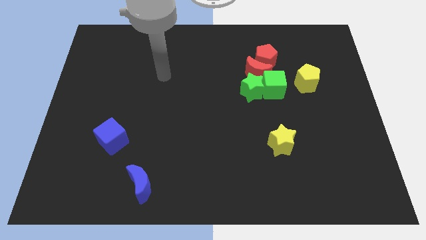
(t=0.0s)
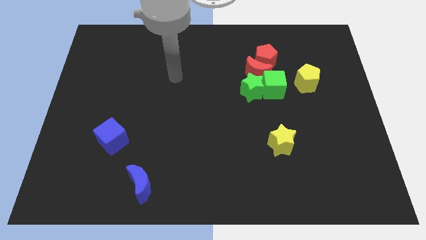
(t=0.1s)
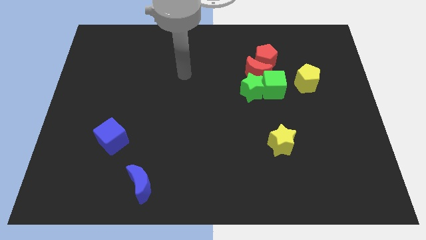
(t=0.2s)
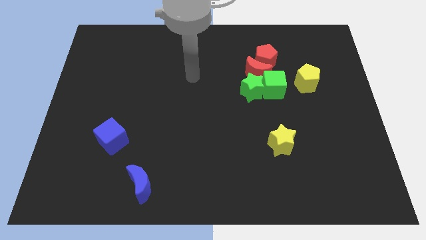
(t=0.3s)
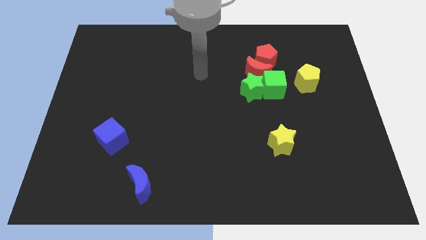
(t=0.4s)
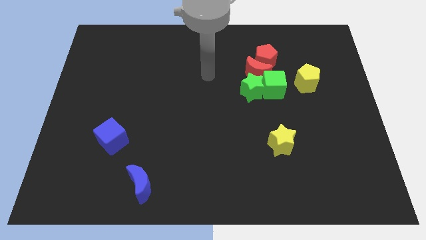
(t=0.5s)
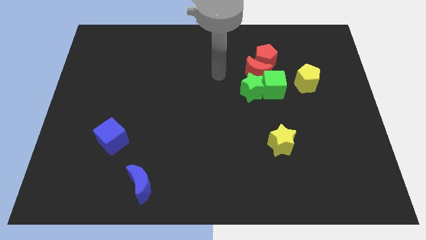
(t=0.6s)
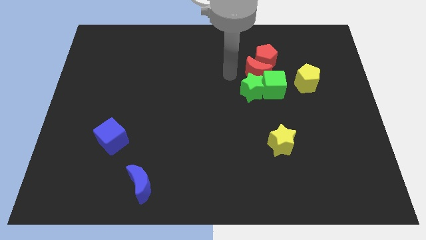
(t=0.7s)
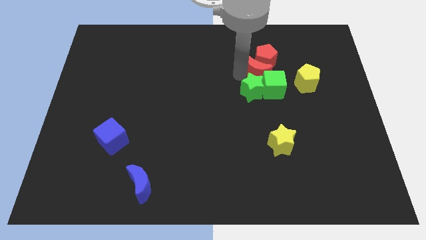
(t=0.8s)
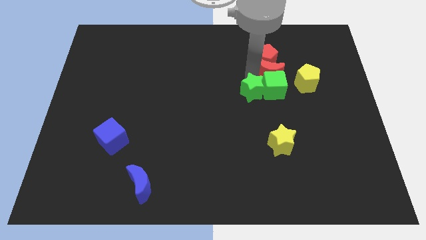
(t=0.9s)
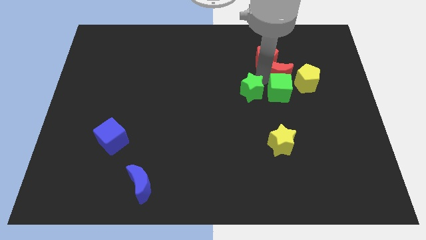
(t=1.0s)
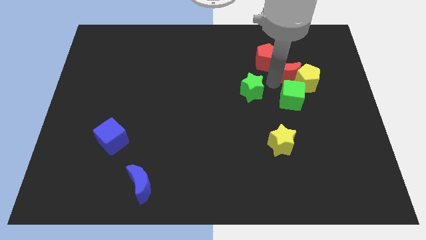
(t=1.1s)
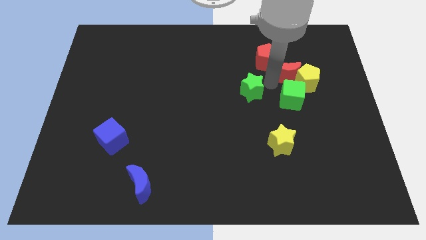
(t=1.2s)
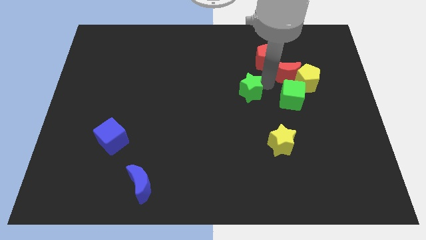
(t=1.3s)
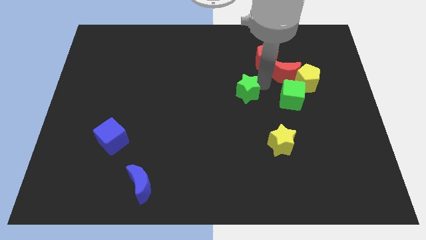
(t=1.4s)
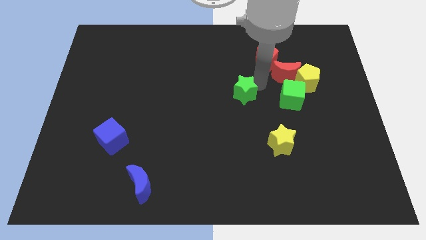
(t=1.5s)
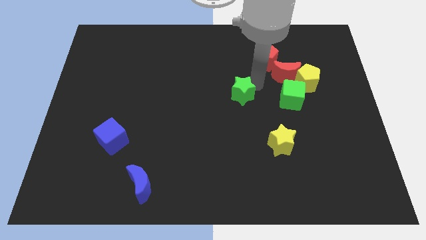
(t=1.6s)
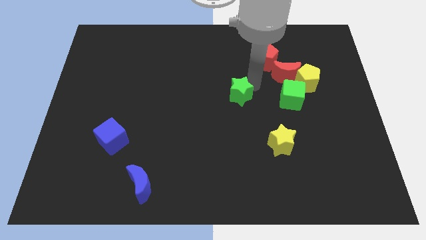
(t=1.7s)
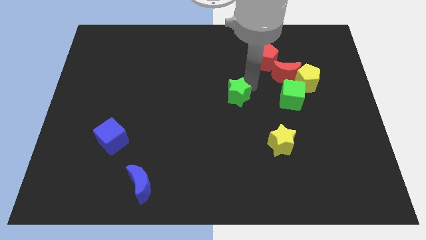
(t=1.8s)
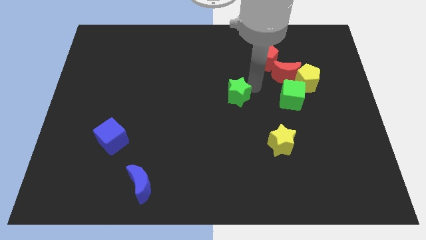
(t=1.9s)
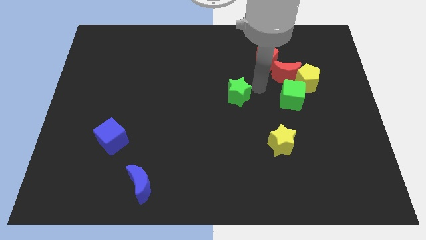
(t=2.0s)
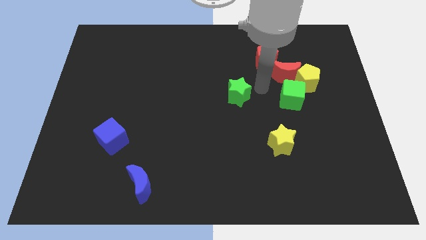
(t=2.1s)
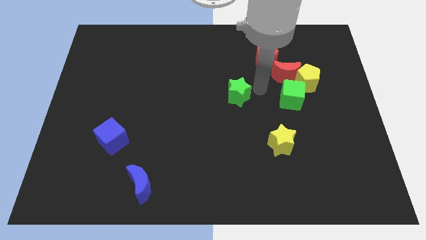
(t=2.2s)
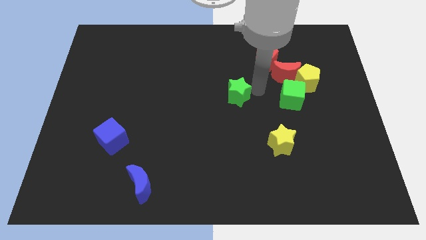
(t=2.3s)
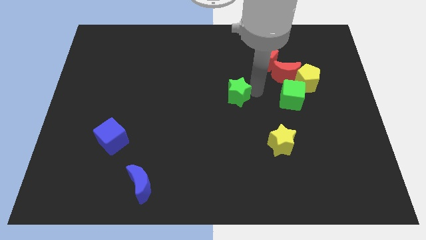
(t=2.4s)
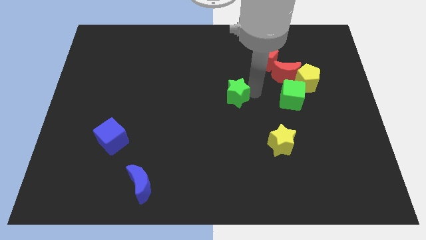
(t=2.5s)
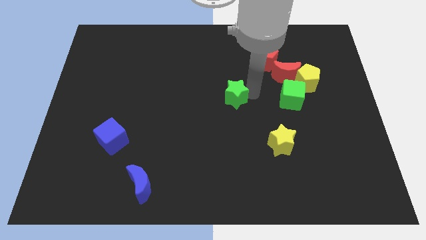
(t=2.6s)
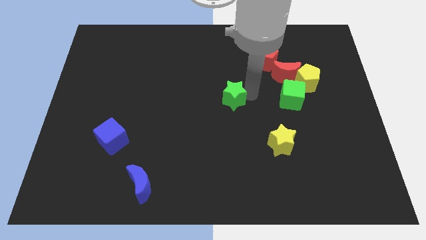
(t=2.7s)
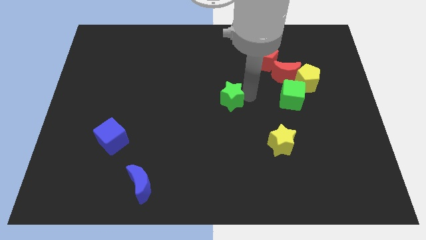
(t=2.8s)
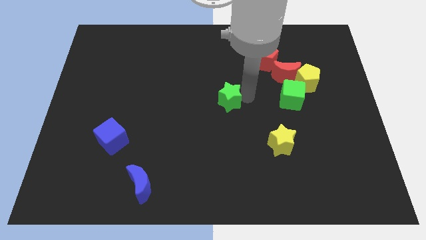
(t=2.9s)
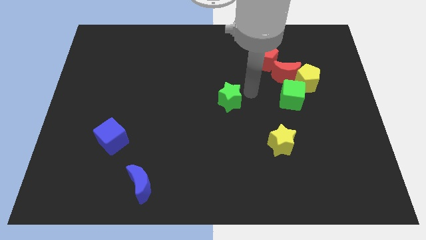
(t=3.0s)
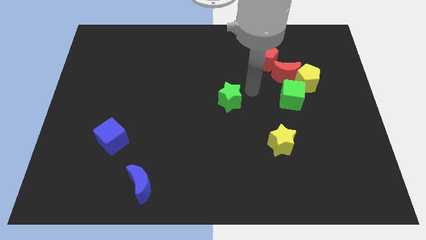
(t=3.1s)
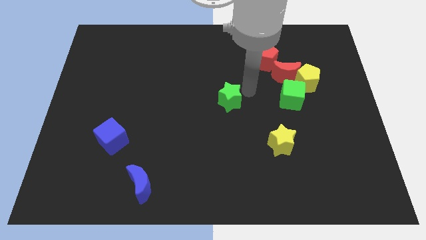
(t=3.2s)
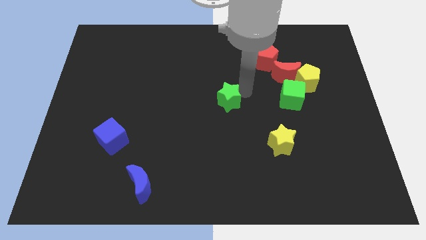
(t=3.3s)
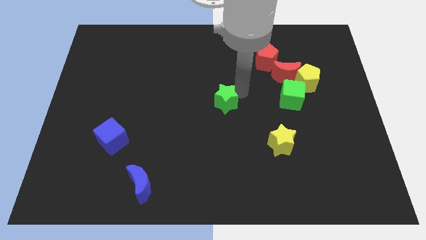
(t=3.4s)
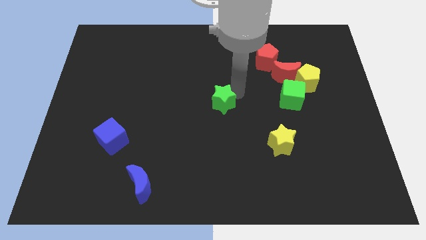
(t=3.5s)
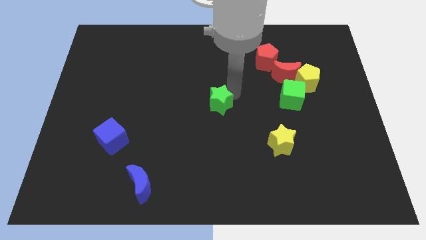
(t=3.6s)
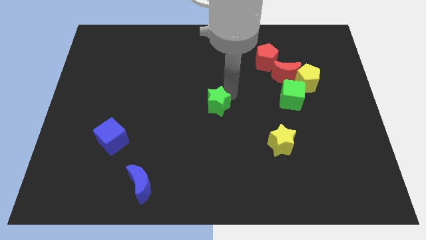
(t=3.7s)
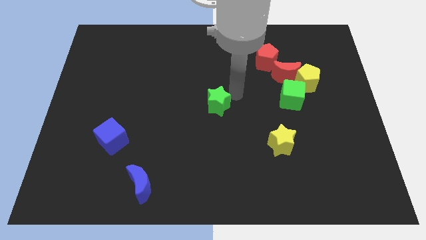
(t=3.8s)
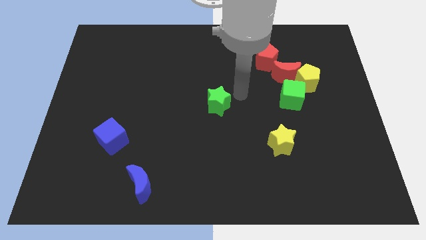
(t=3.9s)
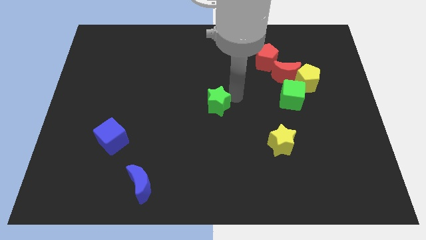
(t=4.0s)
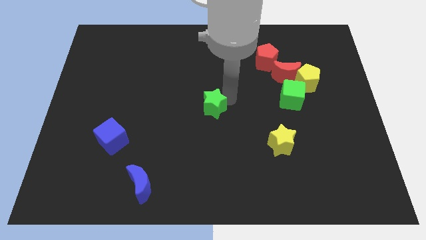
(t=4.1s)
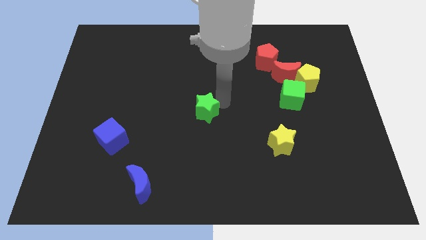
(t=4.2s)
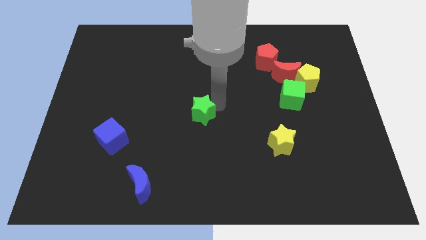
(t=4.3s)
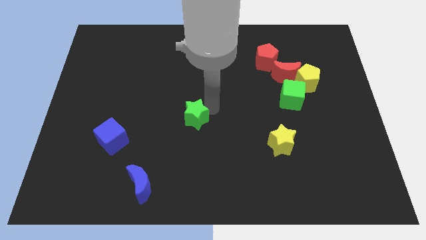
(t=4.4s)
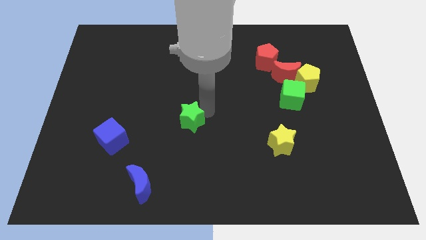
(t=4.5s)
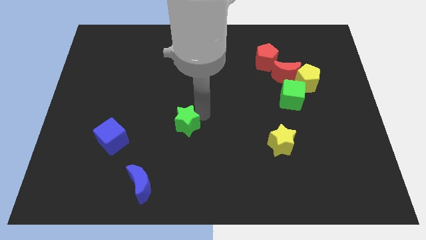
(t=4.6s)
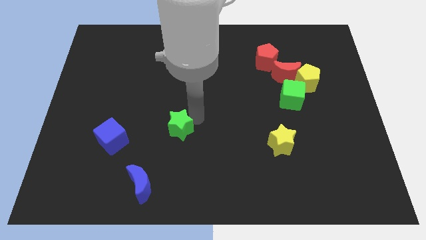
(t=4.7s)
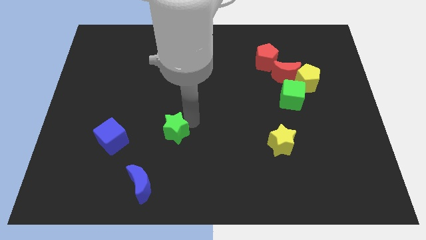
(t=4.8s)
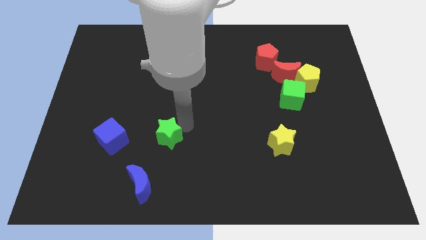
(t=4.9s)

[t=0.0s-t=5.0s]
push the green star above the blue moon

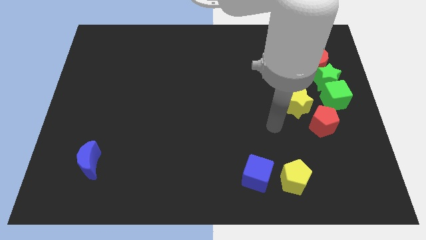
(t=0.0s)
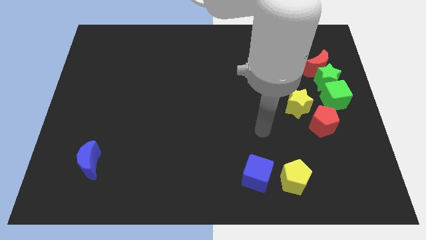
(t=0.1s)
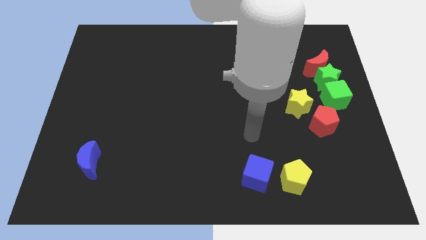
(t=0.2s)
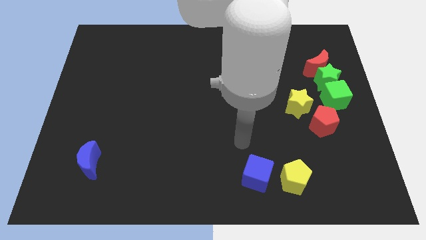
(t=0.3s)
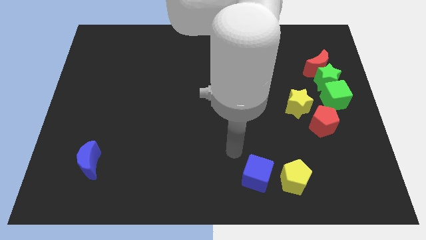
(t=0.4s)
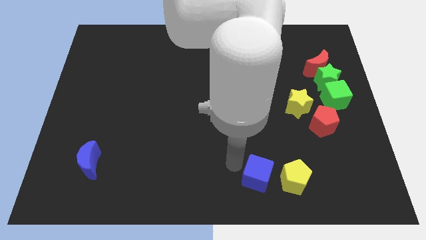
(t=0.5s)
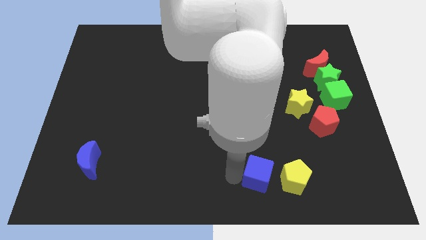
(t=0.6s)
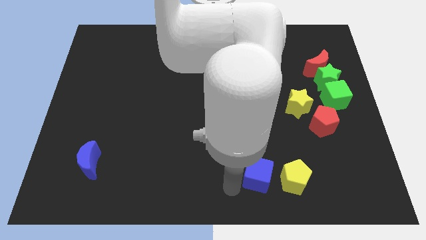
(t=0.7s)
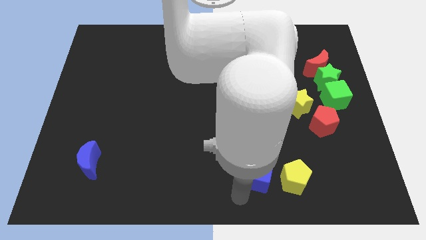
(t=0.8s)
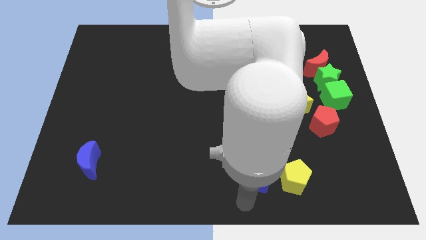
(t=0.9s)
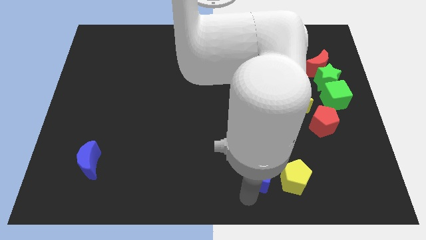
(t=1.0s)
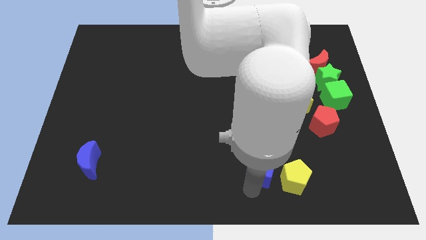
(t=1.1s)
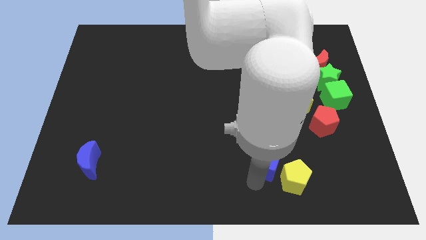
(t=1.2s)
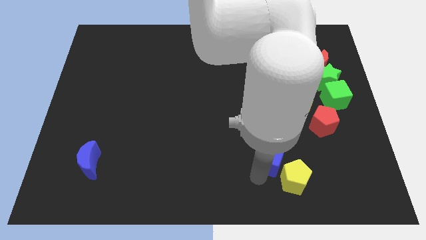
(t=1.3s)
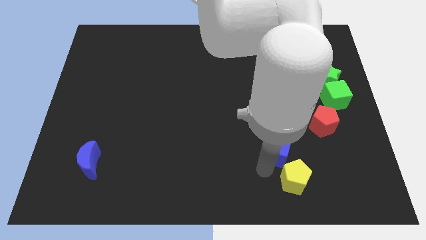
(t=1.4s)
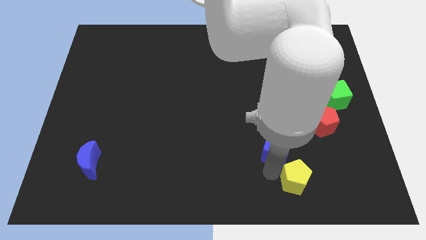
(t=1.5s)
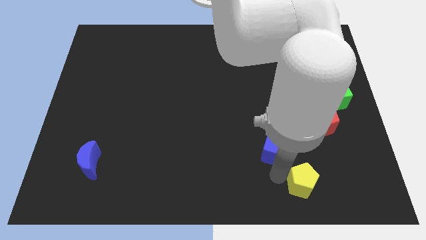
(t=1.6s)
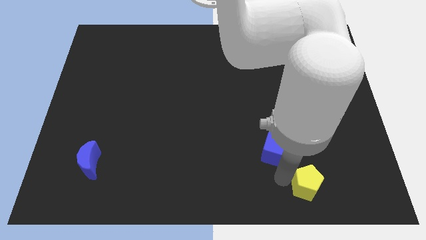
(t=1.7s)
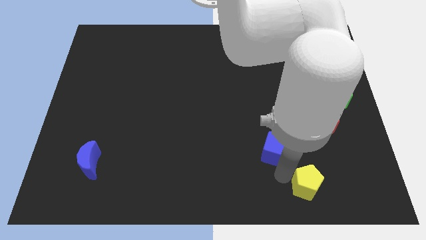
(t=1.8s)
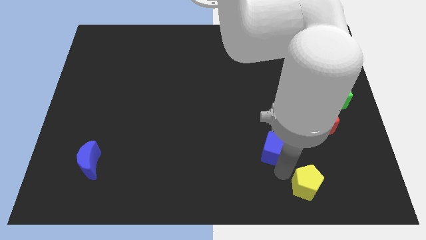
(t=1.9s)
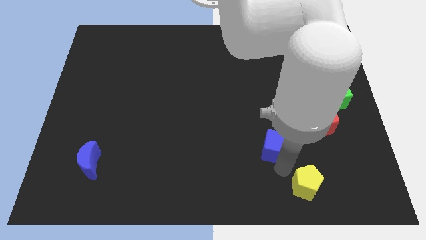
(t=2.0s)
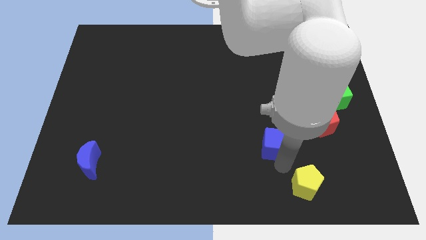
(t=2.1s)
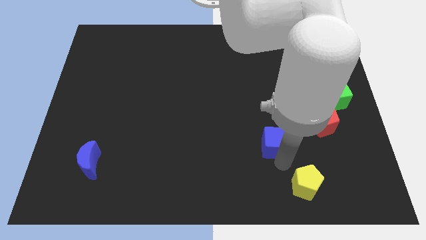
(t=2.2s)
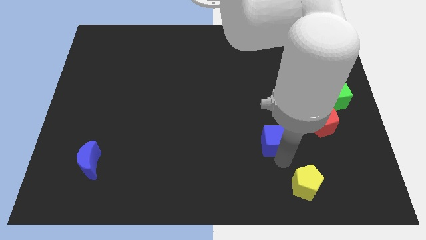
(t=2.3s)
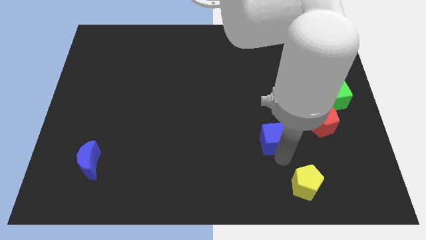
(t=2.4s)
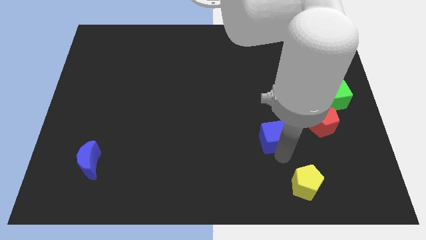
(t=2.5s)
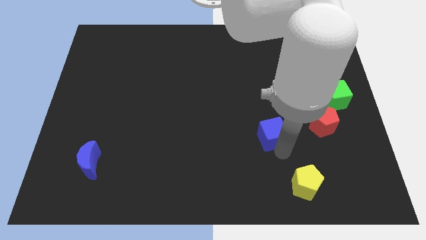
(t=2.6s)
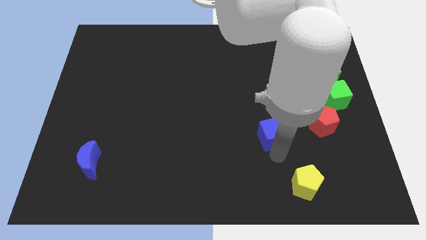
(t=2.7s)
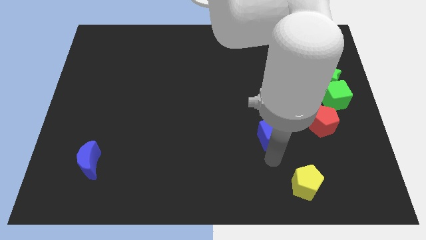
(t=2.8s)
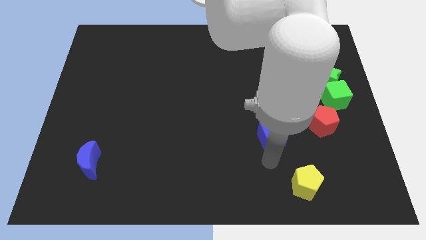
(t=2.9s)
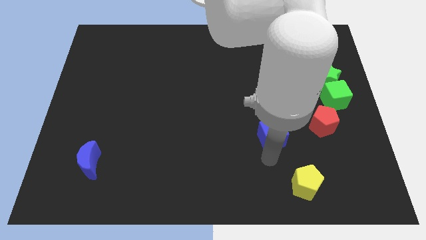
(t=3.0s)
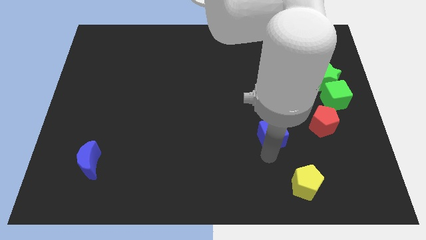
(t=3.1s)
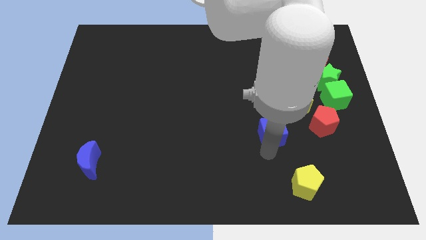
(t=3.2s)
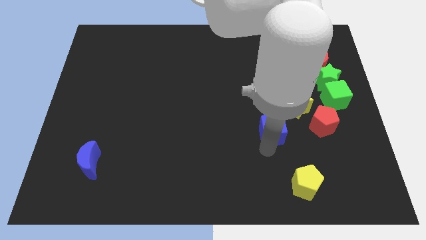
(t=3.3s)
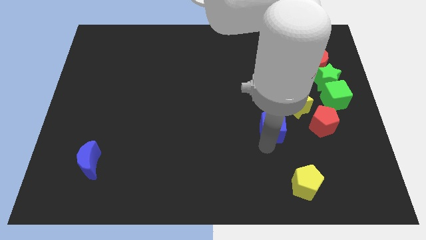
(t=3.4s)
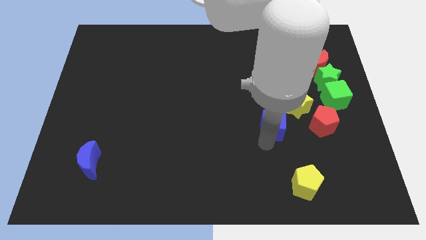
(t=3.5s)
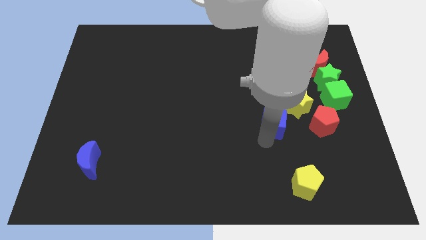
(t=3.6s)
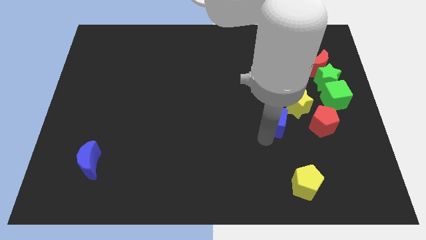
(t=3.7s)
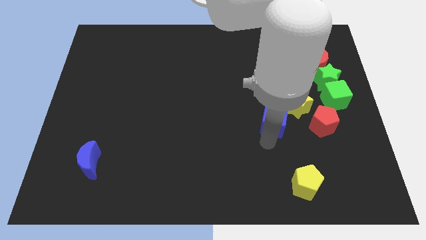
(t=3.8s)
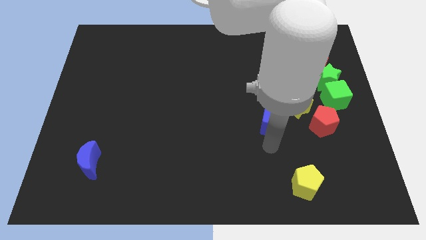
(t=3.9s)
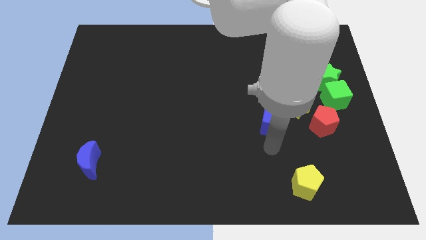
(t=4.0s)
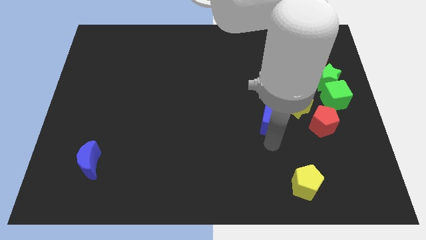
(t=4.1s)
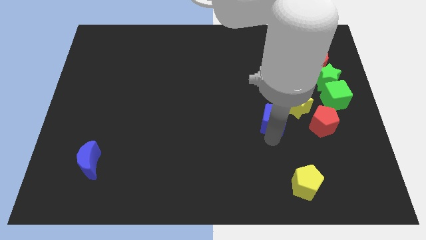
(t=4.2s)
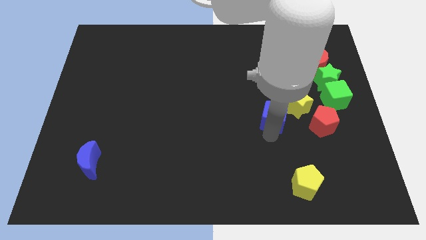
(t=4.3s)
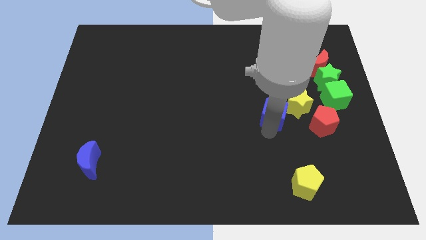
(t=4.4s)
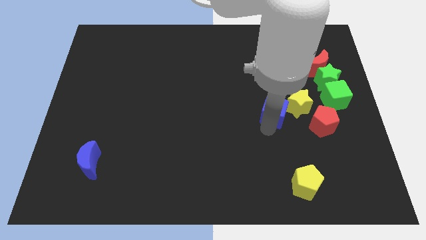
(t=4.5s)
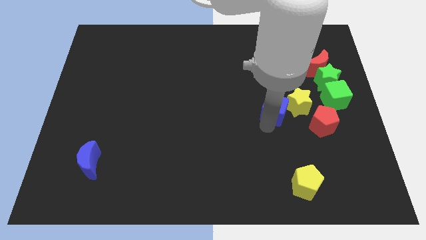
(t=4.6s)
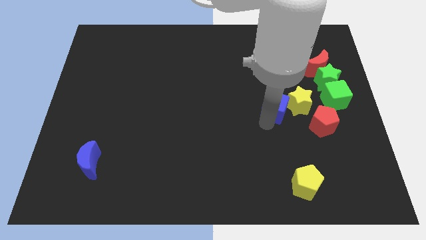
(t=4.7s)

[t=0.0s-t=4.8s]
slide the blue cube to the left of the green cube
